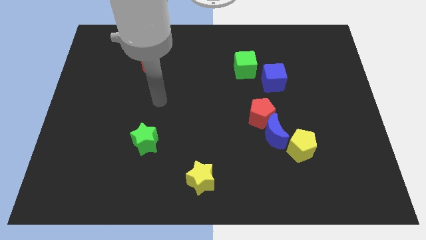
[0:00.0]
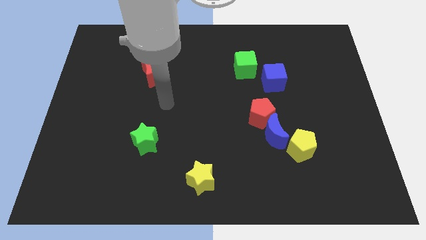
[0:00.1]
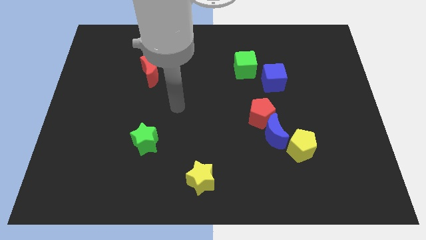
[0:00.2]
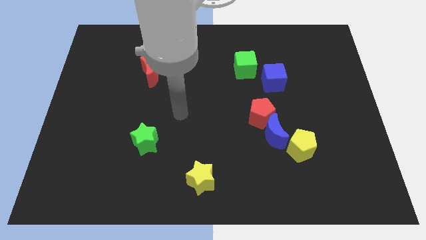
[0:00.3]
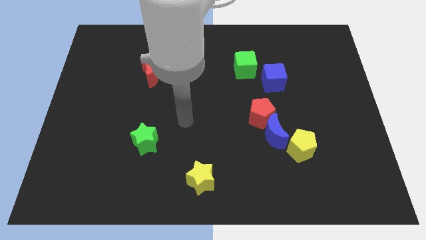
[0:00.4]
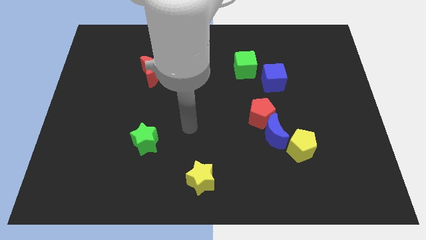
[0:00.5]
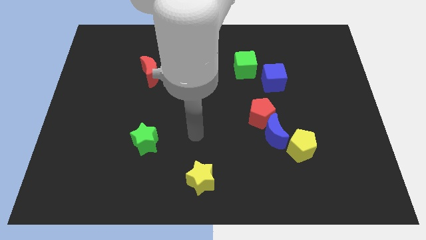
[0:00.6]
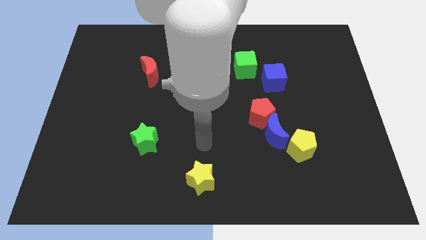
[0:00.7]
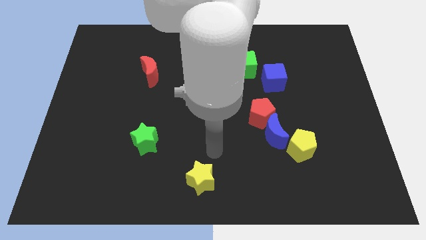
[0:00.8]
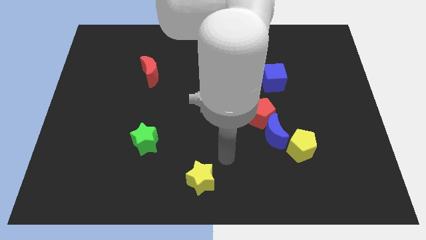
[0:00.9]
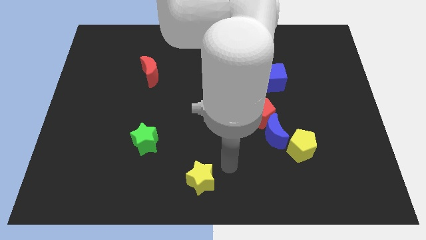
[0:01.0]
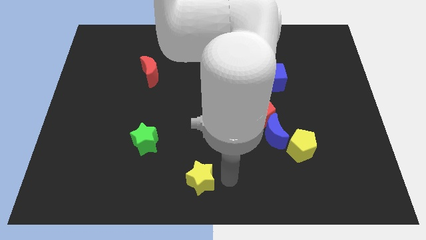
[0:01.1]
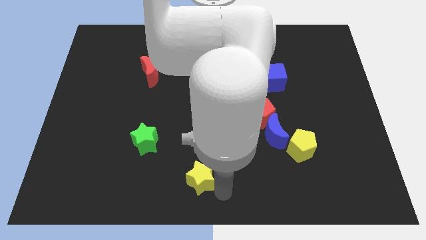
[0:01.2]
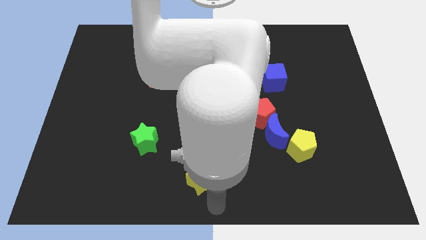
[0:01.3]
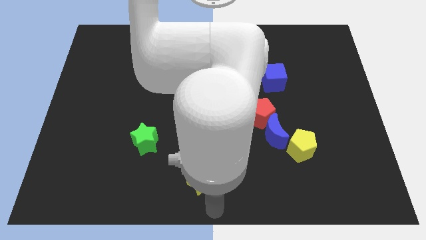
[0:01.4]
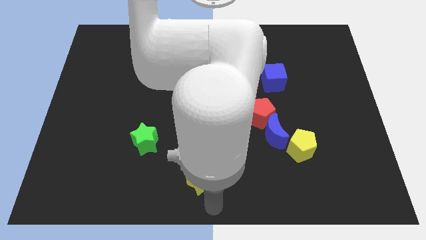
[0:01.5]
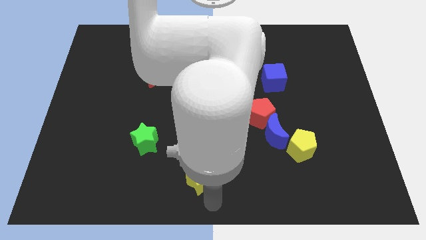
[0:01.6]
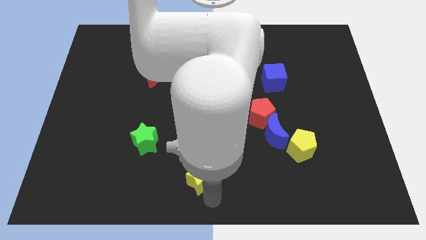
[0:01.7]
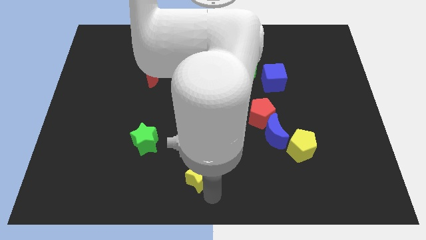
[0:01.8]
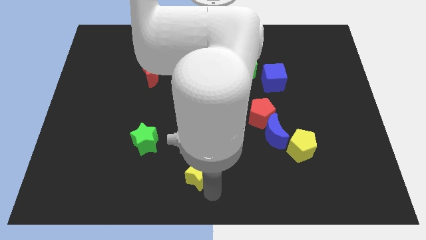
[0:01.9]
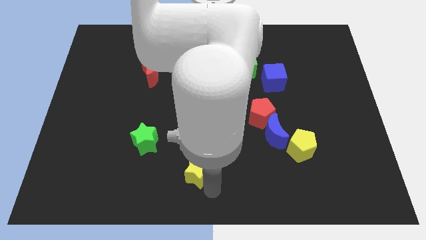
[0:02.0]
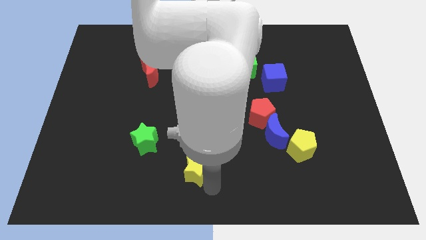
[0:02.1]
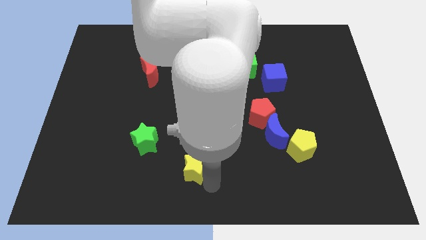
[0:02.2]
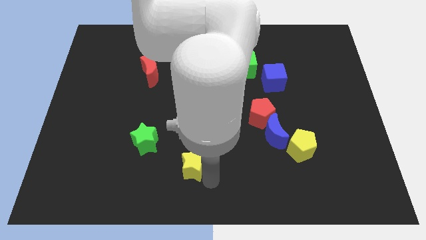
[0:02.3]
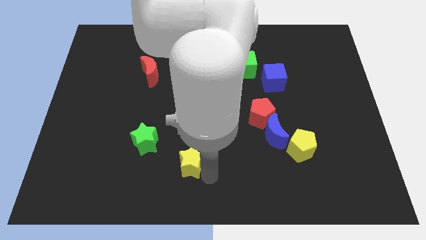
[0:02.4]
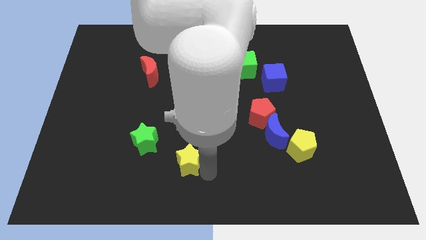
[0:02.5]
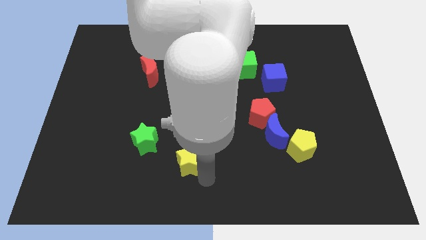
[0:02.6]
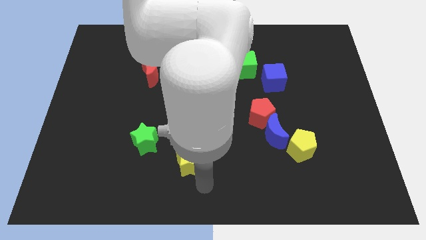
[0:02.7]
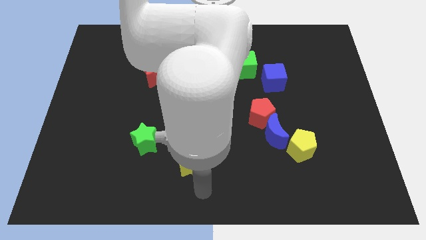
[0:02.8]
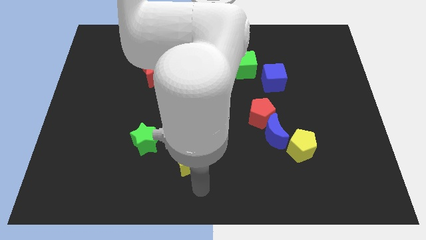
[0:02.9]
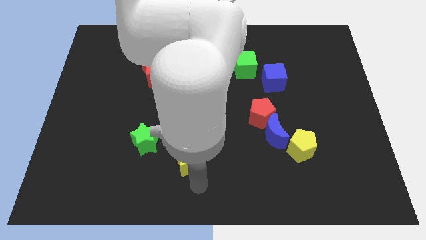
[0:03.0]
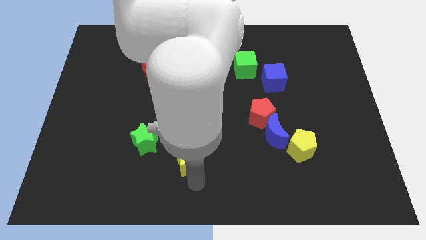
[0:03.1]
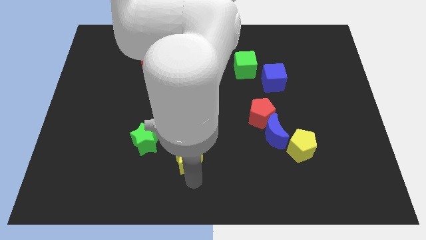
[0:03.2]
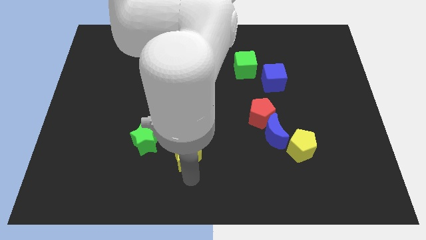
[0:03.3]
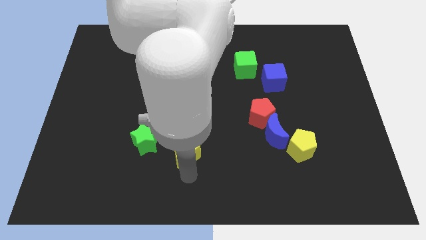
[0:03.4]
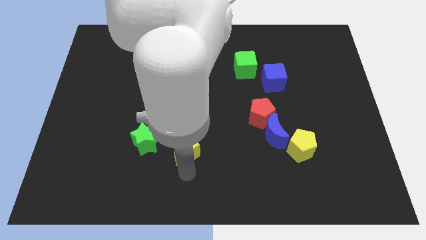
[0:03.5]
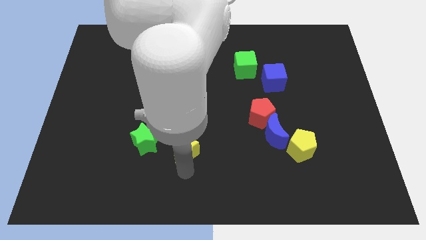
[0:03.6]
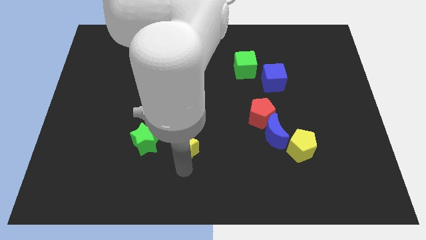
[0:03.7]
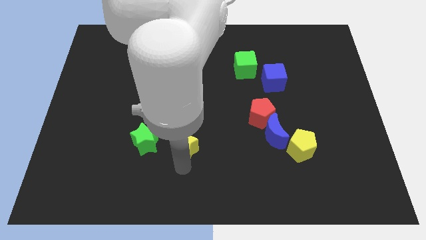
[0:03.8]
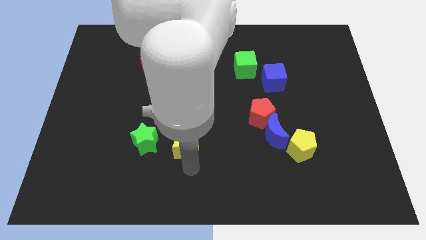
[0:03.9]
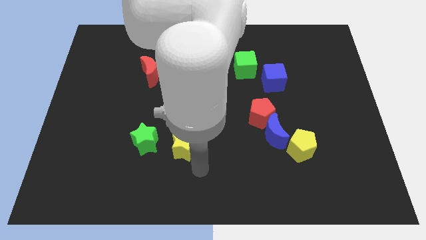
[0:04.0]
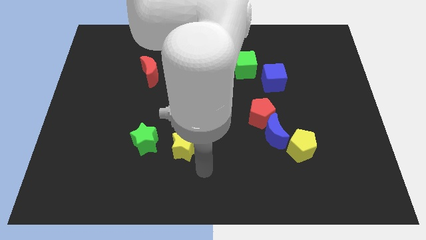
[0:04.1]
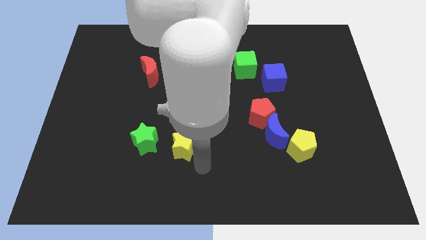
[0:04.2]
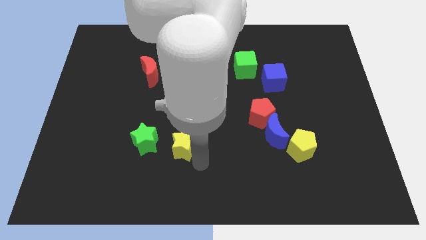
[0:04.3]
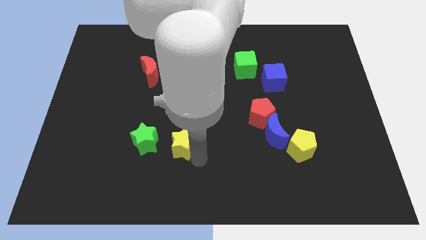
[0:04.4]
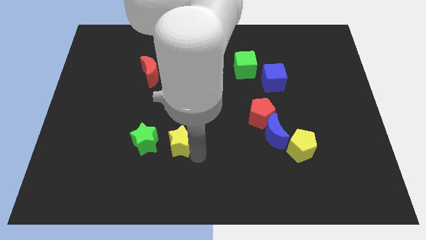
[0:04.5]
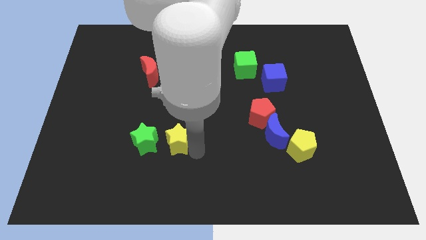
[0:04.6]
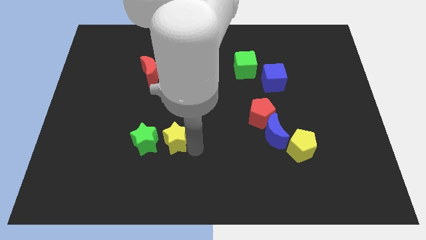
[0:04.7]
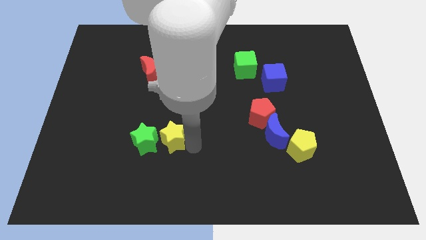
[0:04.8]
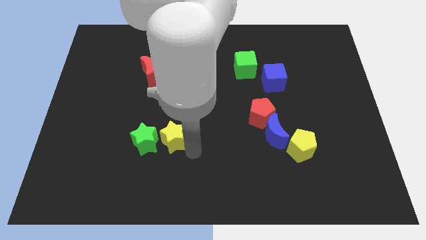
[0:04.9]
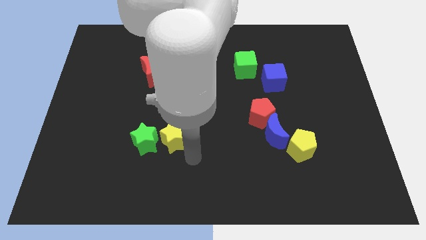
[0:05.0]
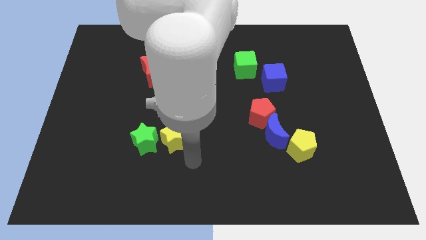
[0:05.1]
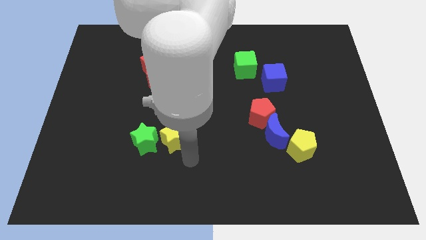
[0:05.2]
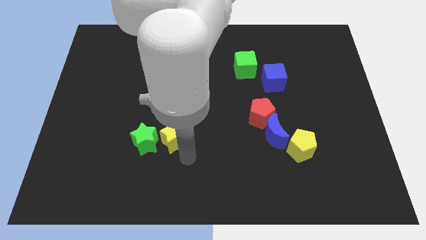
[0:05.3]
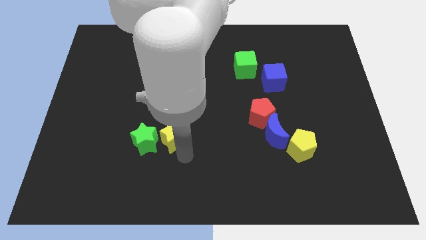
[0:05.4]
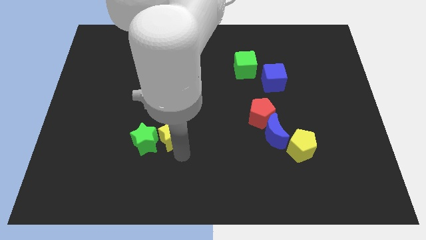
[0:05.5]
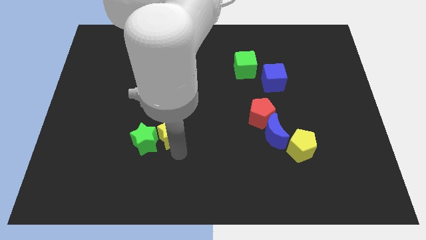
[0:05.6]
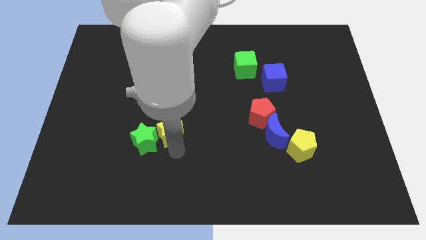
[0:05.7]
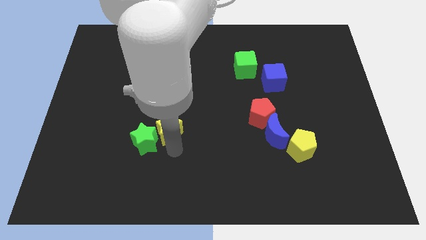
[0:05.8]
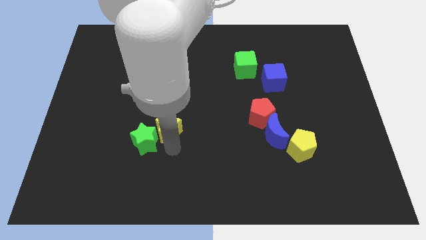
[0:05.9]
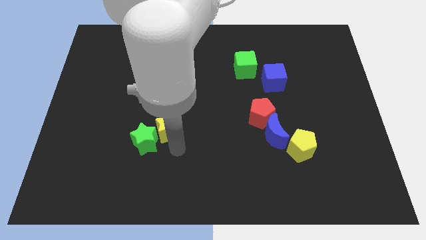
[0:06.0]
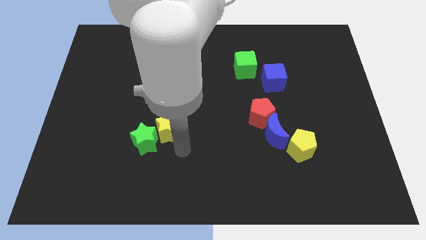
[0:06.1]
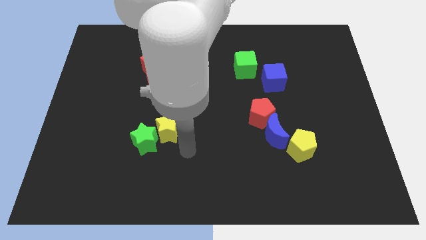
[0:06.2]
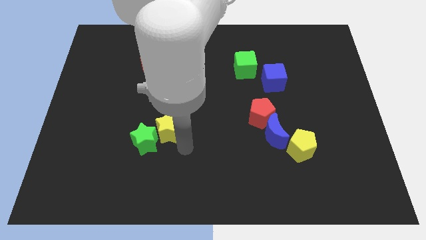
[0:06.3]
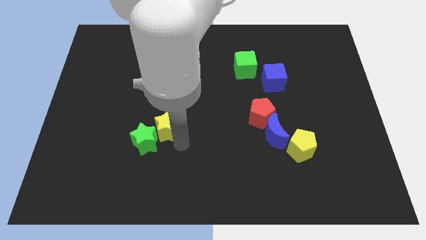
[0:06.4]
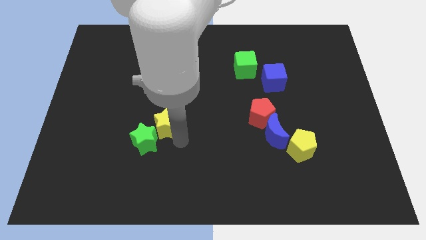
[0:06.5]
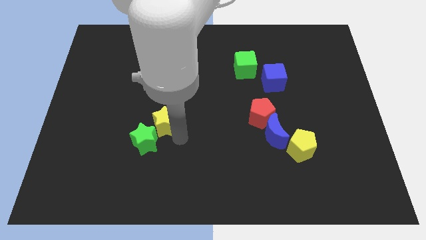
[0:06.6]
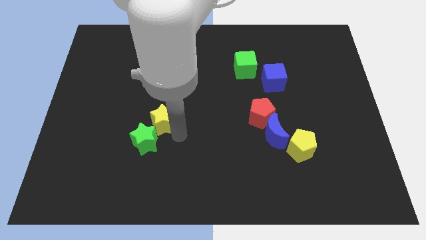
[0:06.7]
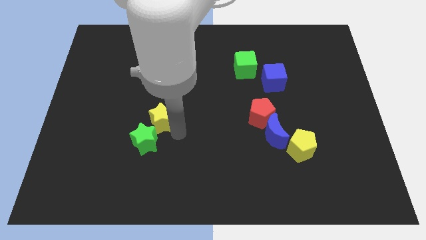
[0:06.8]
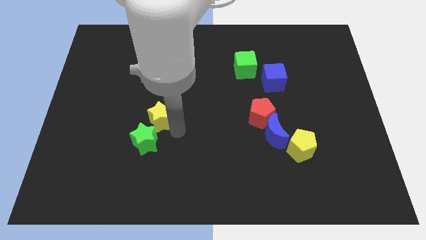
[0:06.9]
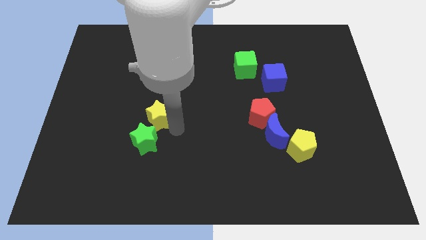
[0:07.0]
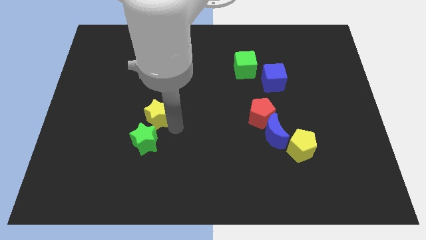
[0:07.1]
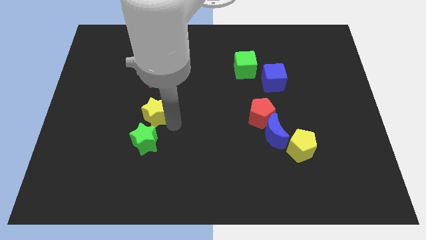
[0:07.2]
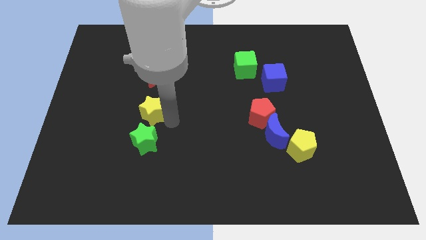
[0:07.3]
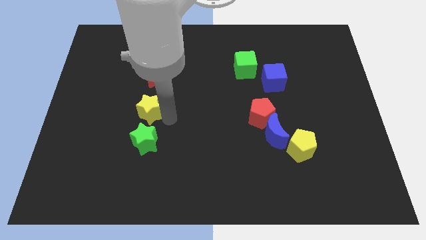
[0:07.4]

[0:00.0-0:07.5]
slide the yellow star up and left diagonally

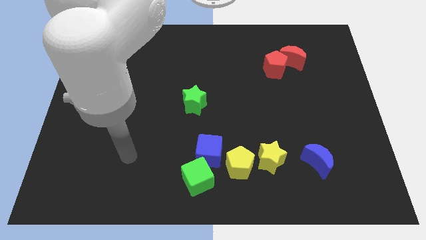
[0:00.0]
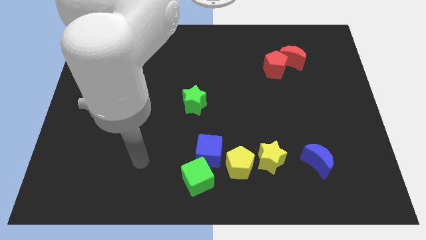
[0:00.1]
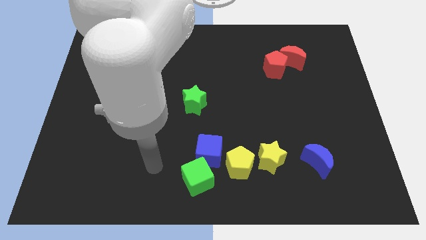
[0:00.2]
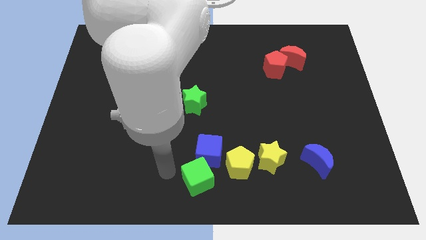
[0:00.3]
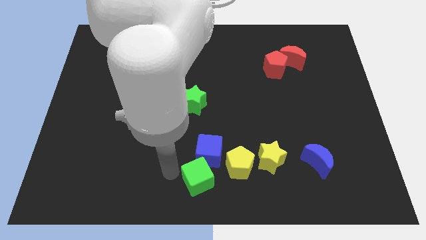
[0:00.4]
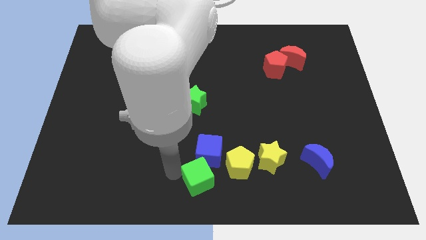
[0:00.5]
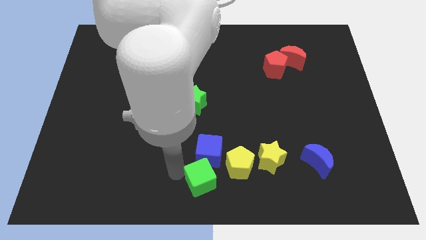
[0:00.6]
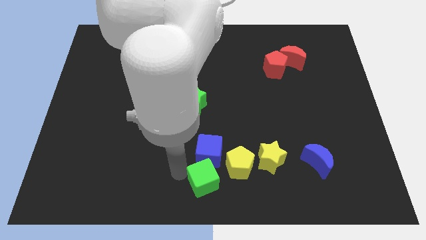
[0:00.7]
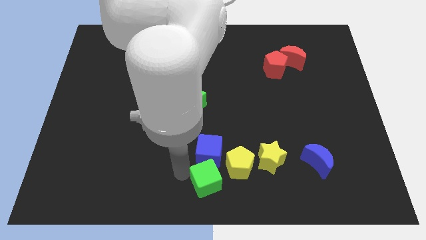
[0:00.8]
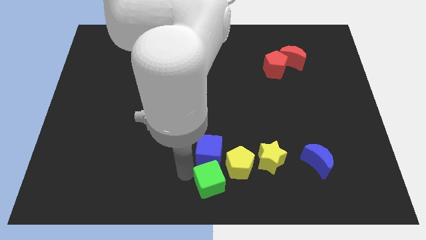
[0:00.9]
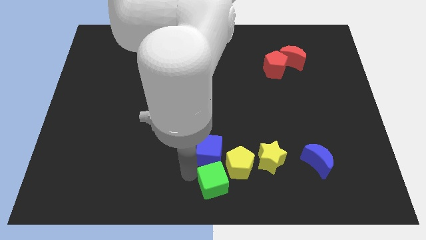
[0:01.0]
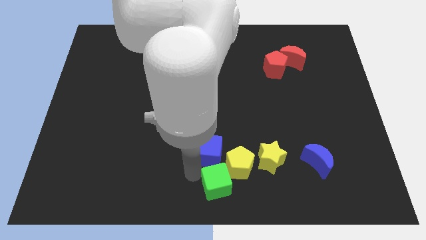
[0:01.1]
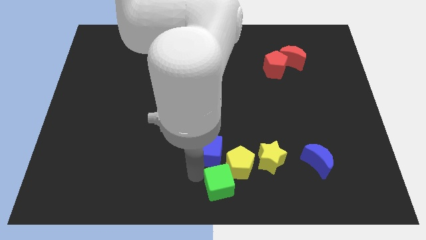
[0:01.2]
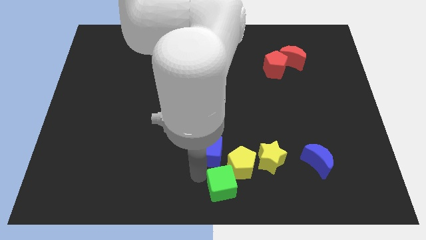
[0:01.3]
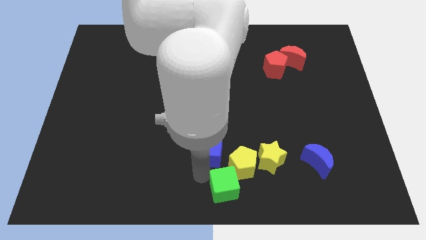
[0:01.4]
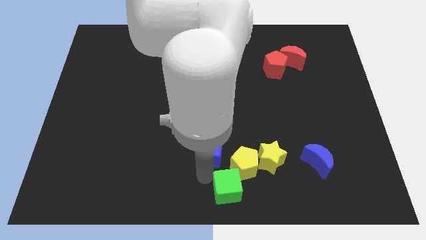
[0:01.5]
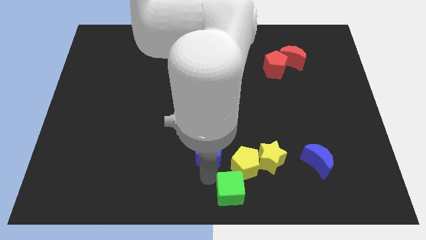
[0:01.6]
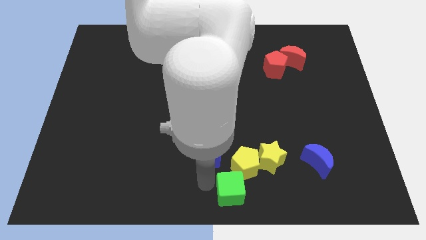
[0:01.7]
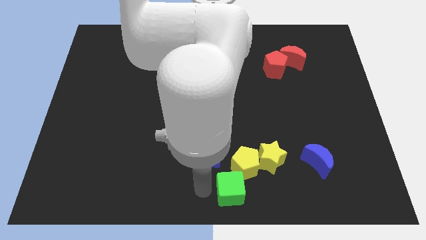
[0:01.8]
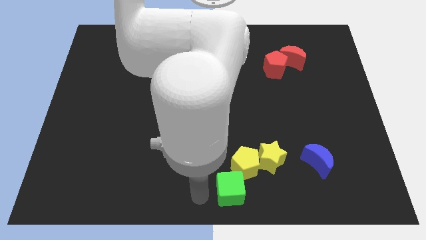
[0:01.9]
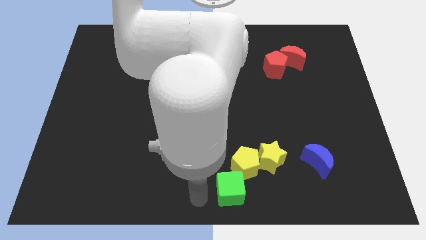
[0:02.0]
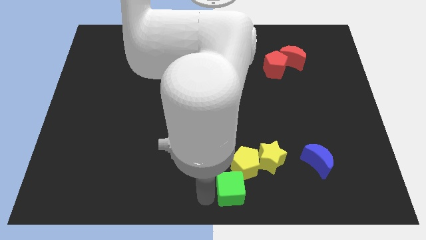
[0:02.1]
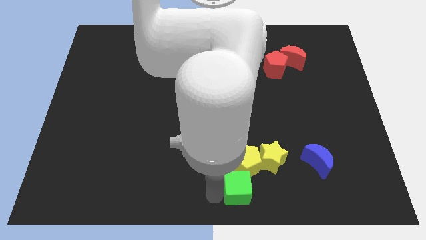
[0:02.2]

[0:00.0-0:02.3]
move the green cube to the right a bit
